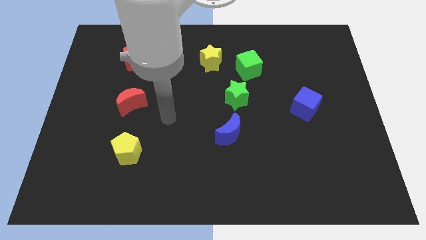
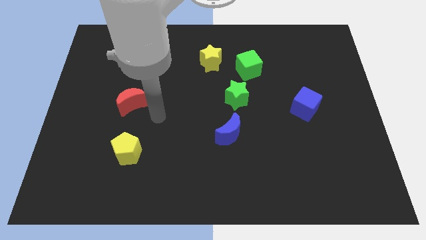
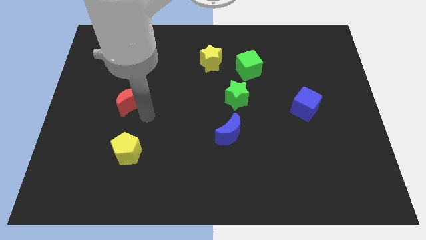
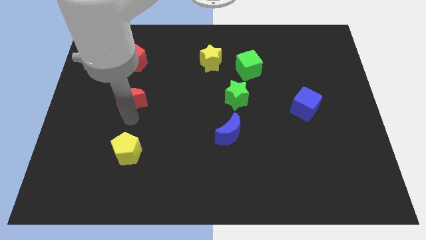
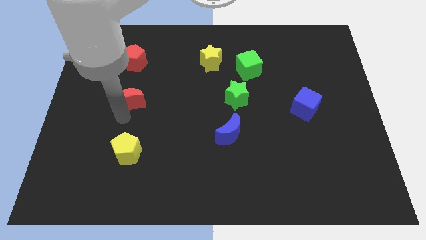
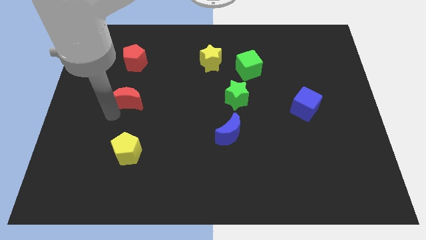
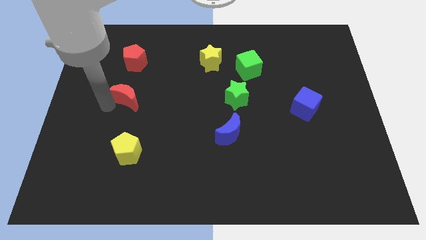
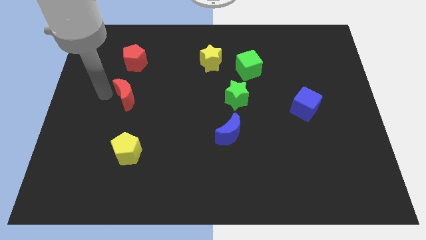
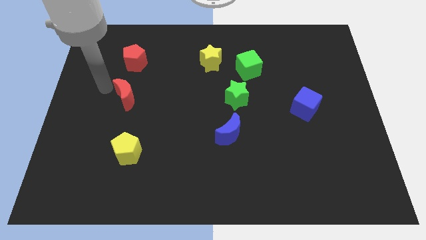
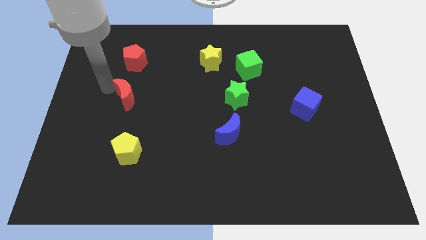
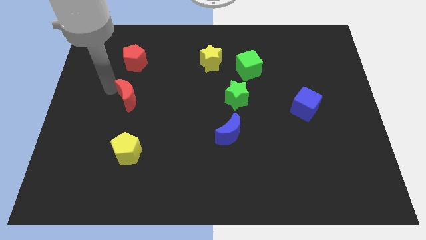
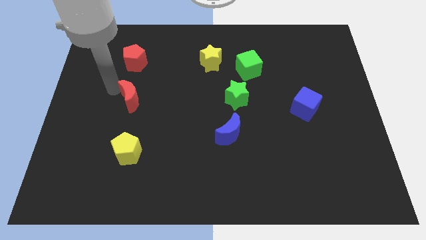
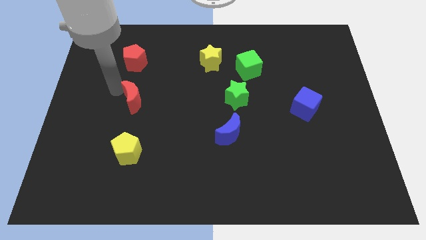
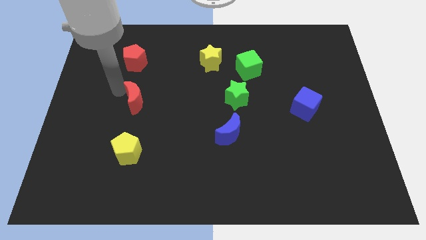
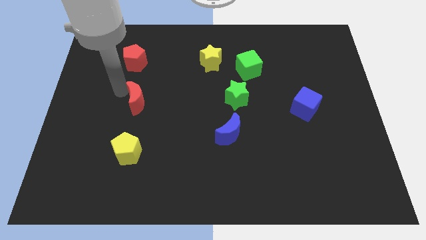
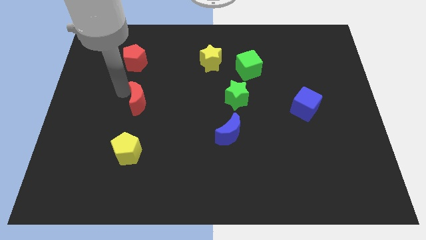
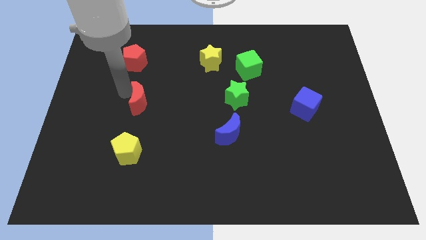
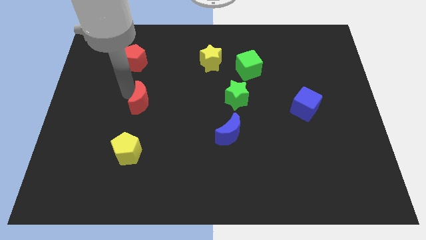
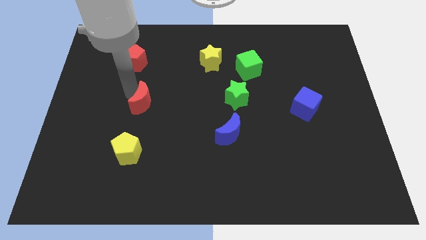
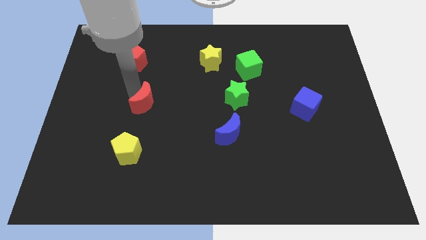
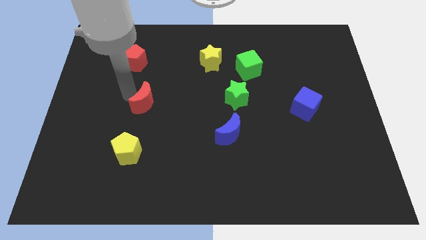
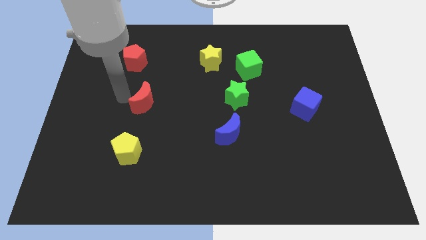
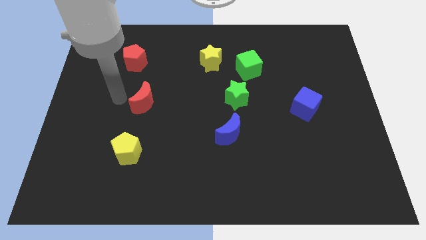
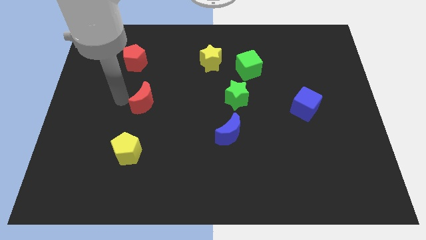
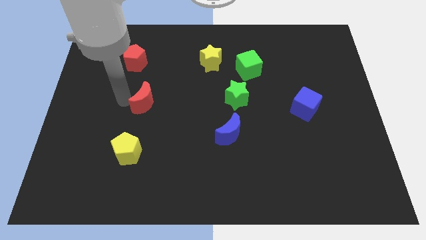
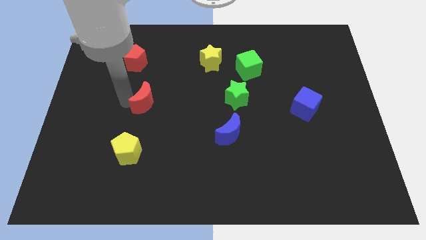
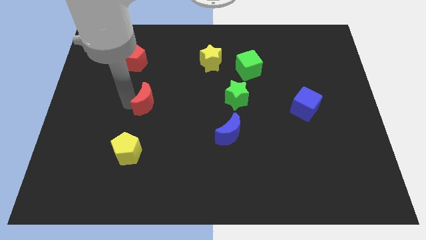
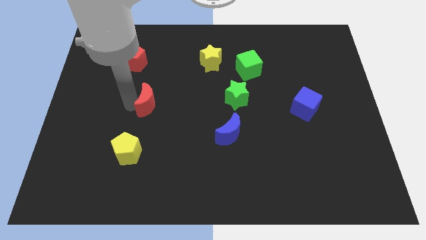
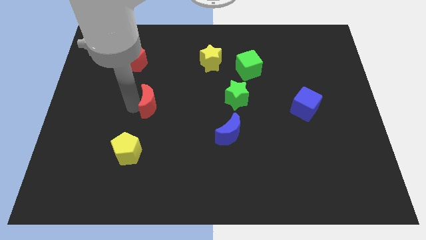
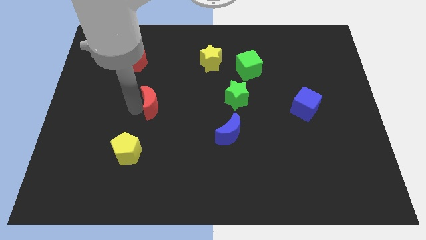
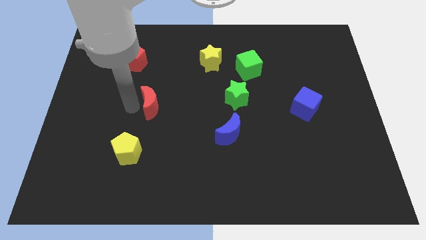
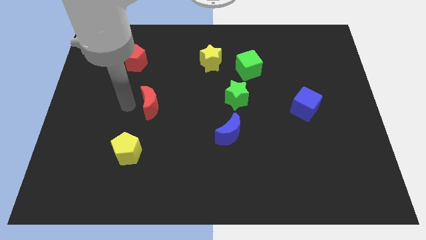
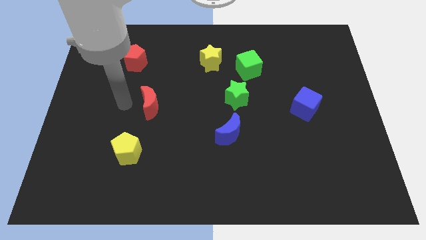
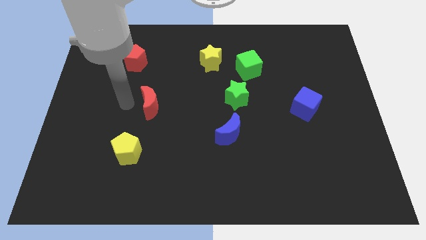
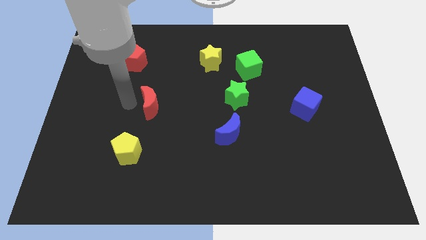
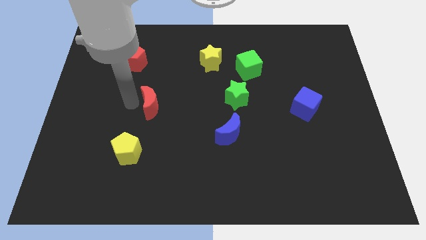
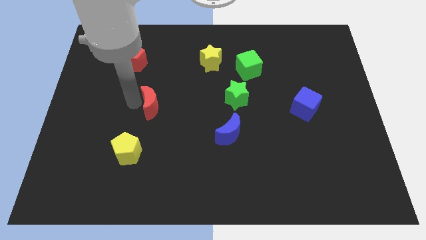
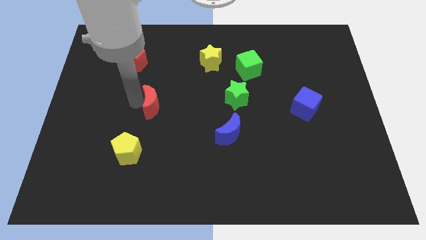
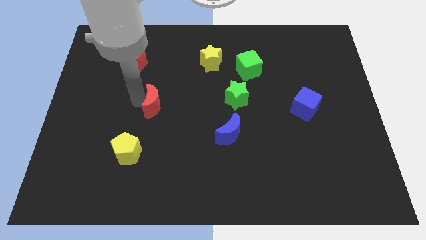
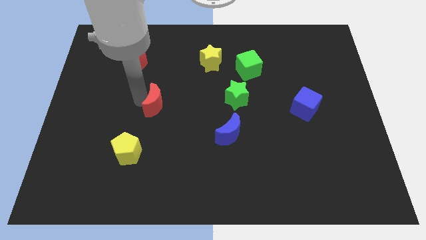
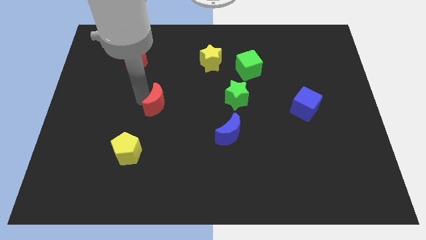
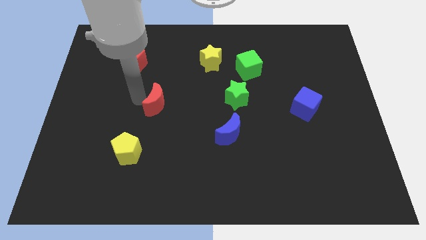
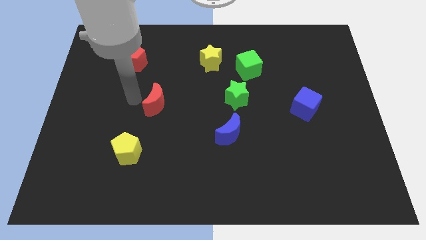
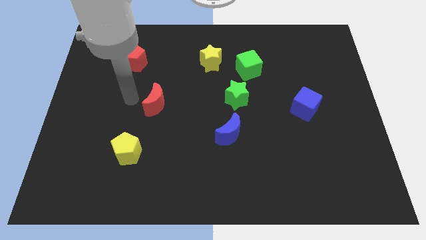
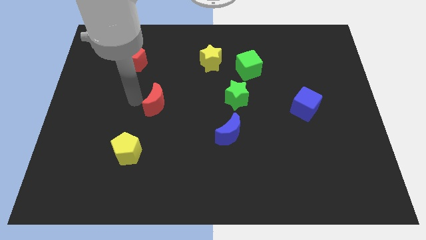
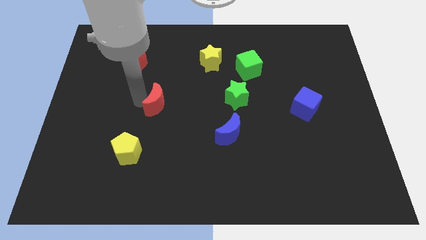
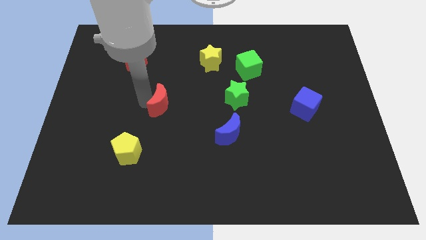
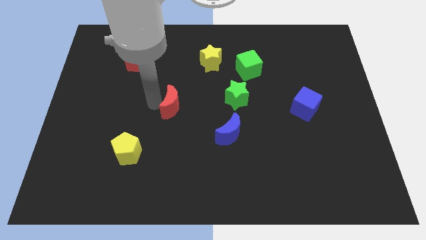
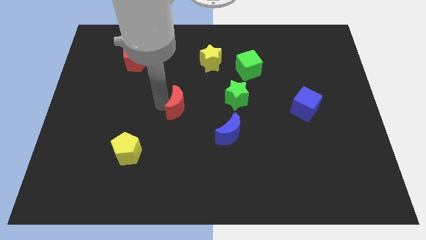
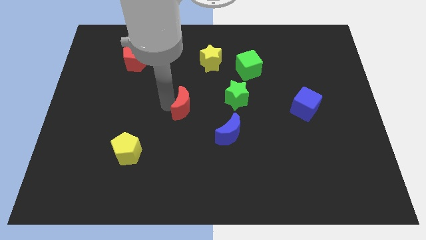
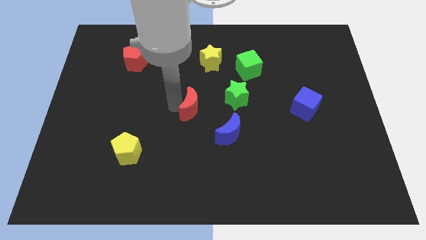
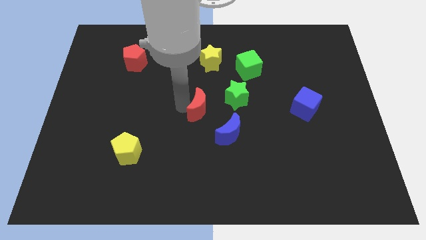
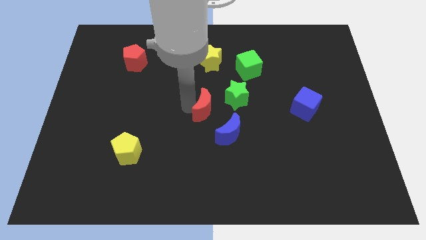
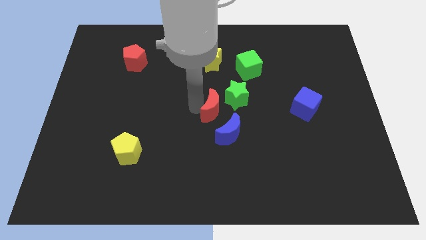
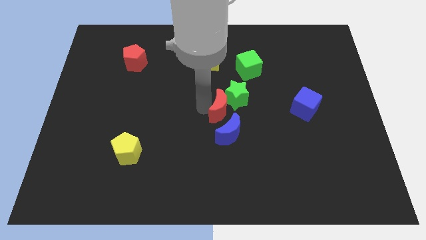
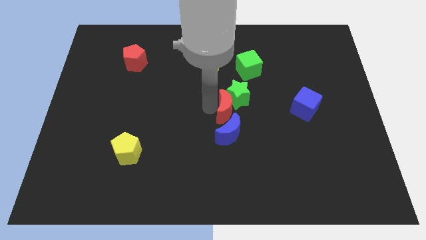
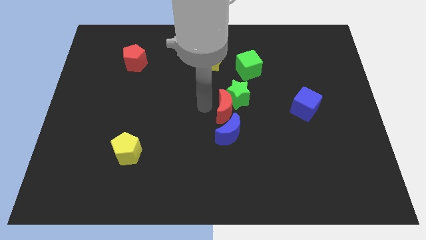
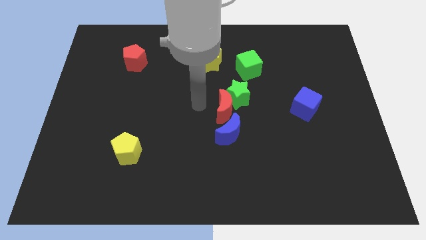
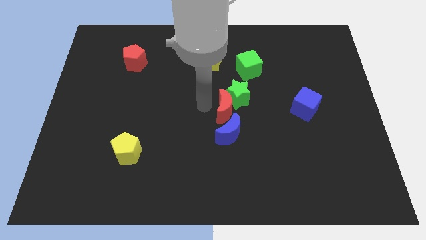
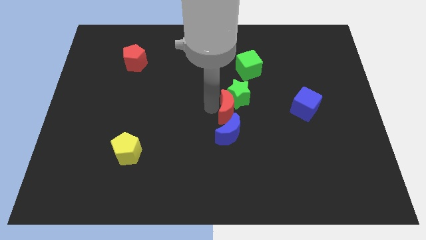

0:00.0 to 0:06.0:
put the red moon diagonally up and to the right of the blue moon

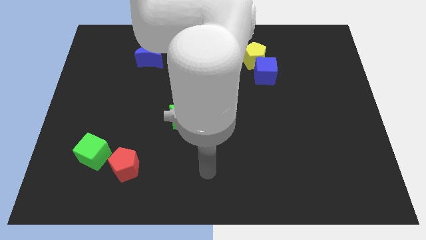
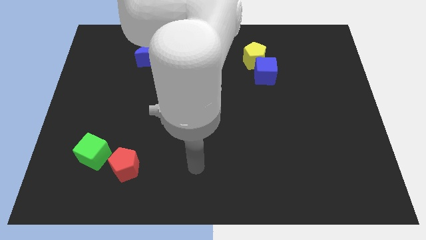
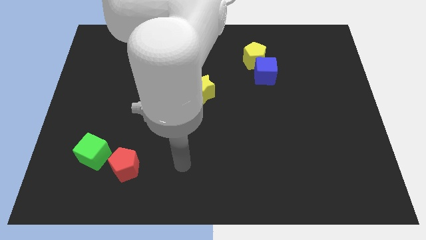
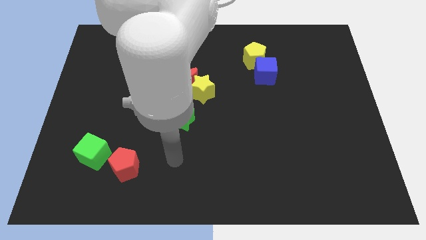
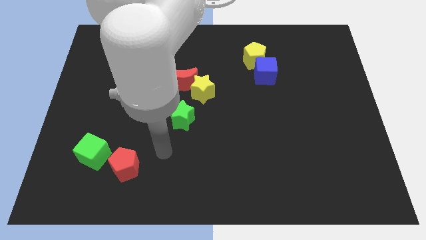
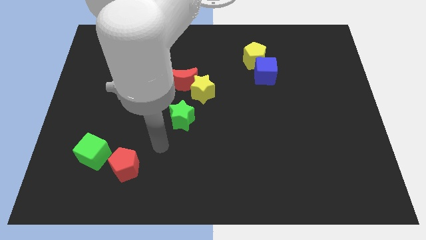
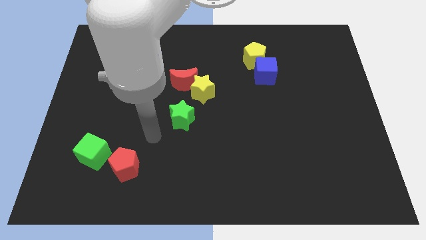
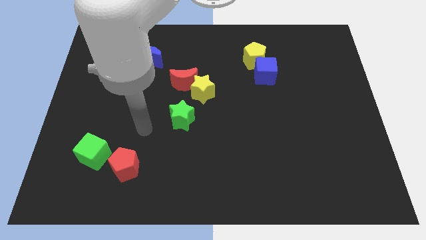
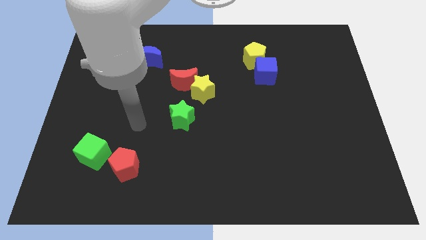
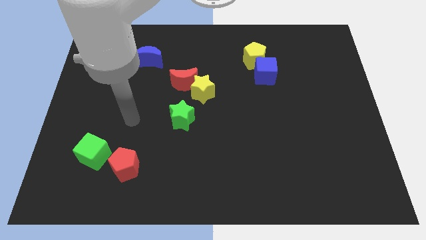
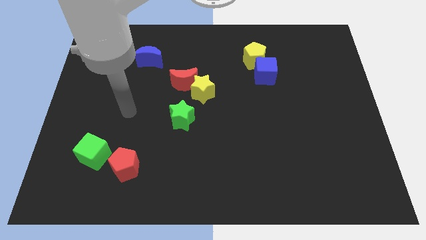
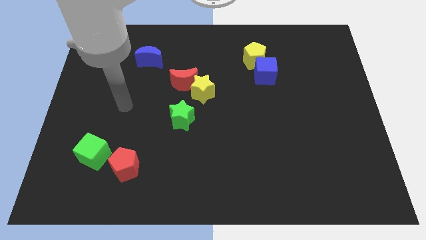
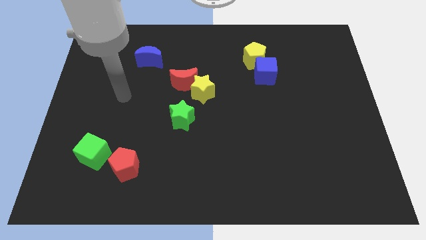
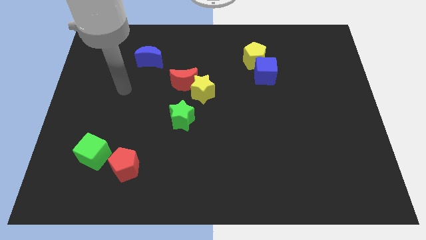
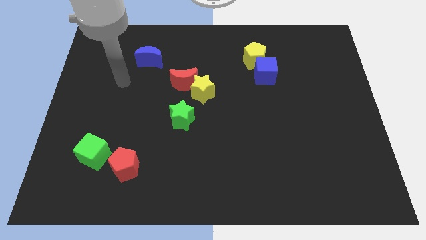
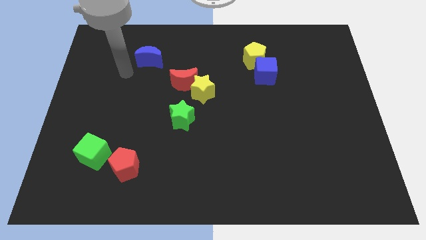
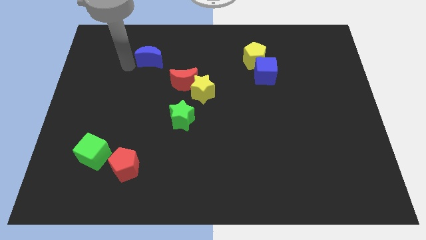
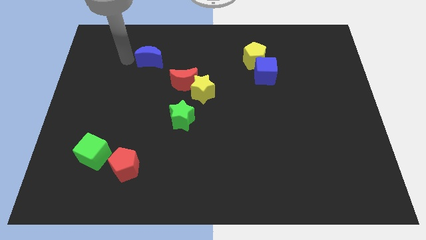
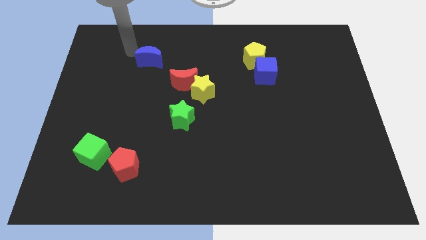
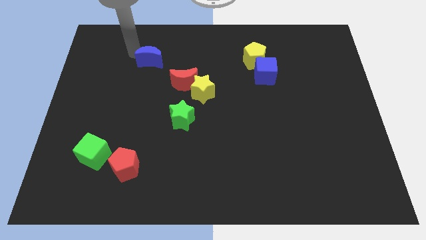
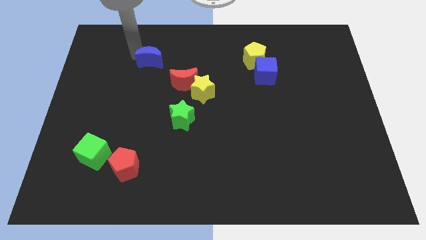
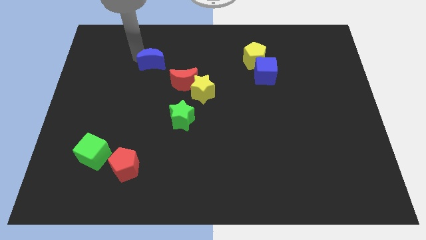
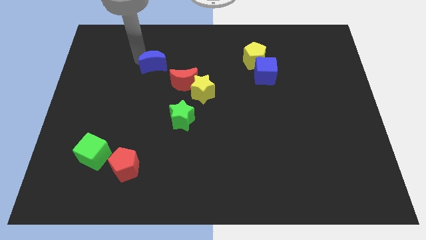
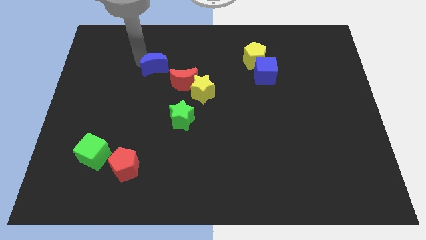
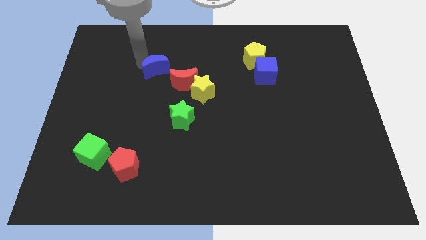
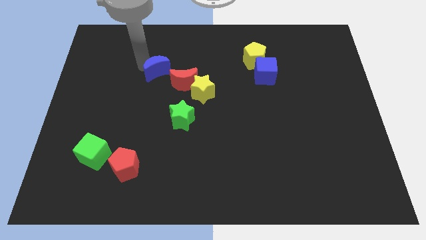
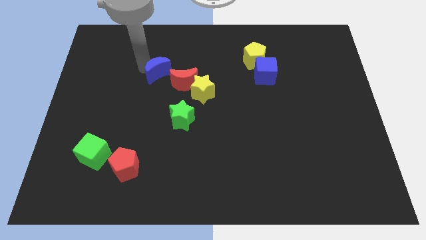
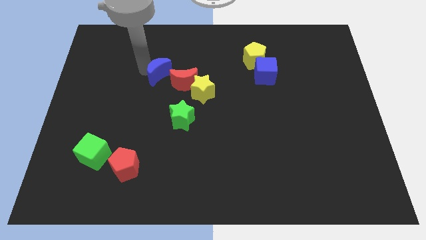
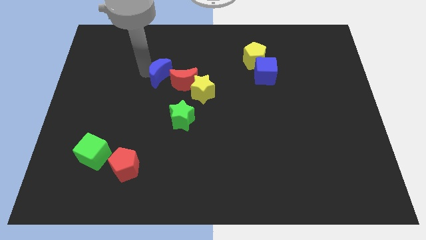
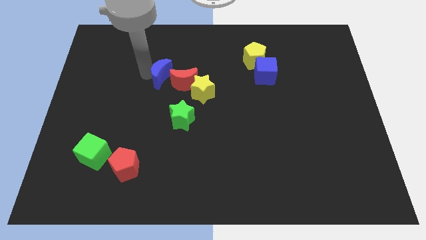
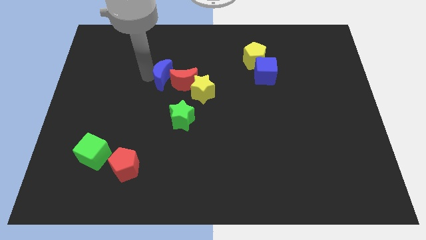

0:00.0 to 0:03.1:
slide the blue moon to the top left of the yellow star
